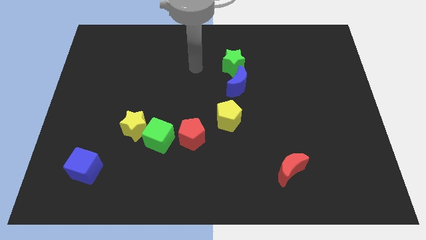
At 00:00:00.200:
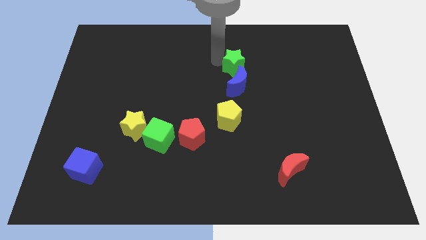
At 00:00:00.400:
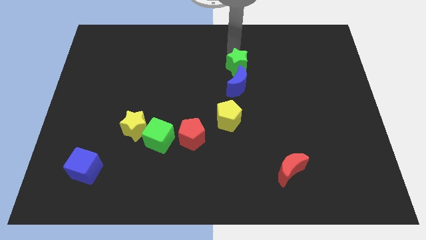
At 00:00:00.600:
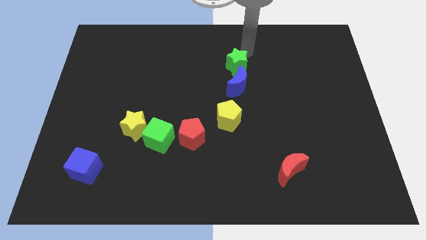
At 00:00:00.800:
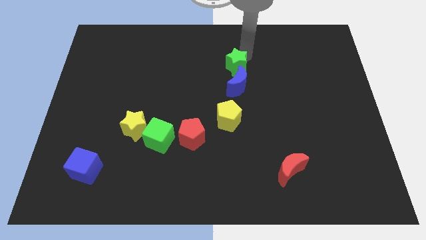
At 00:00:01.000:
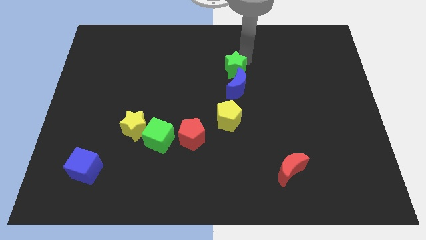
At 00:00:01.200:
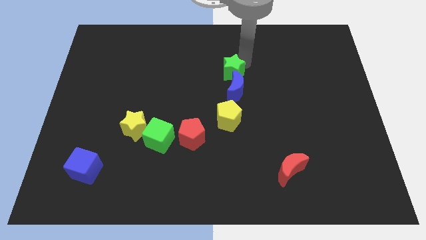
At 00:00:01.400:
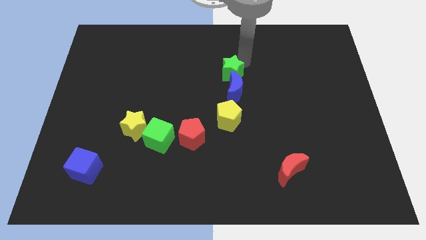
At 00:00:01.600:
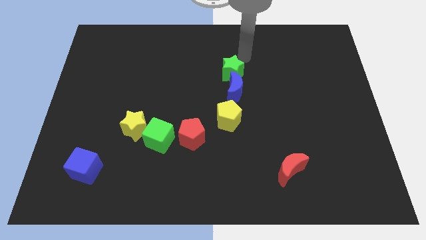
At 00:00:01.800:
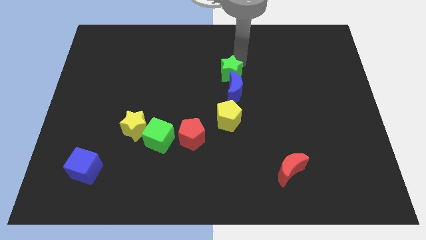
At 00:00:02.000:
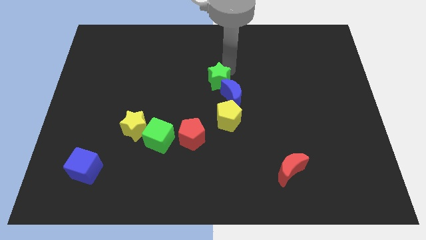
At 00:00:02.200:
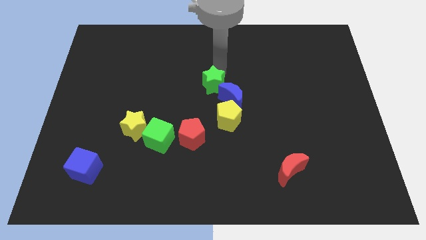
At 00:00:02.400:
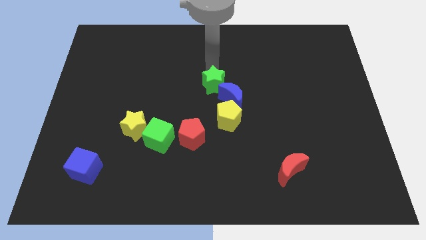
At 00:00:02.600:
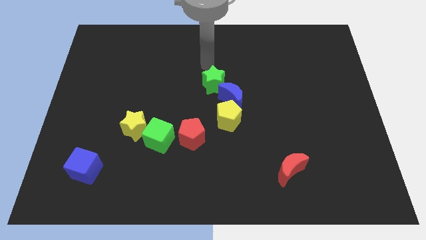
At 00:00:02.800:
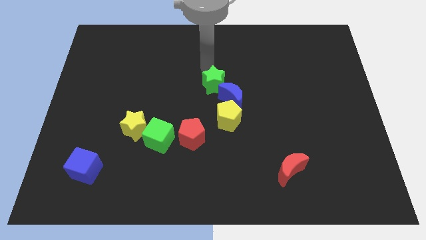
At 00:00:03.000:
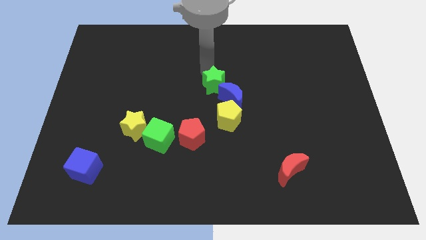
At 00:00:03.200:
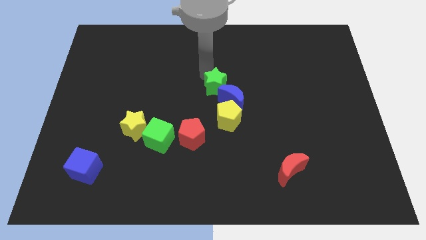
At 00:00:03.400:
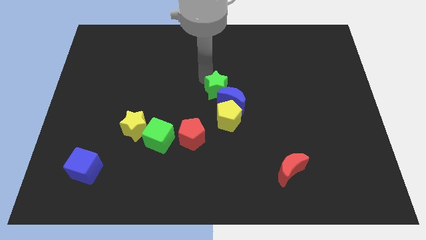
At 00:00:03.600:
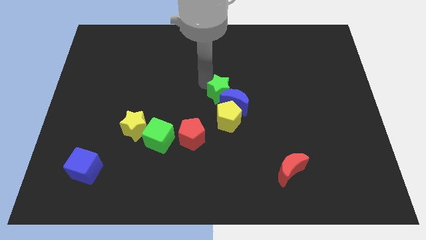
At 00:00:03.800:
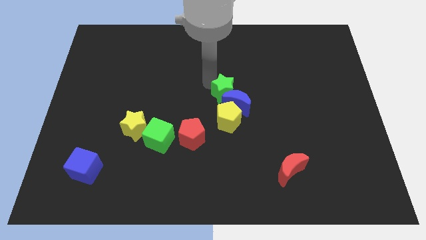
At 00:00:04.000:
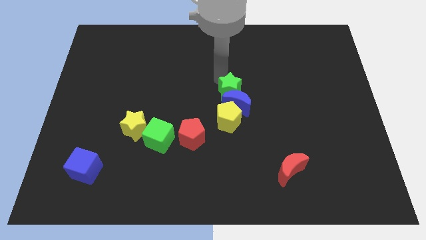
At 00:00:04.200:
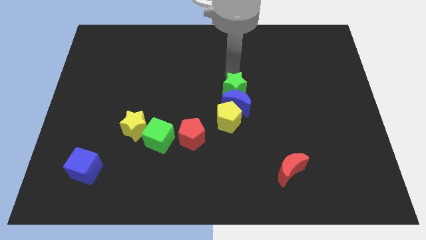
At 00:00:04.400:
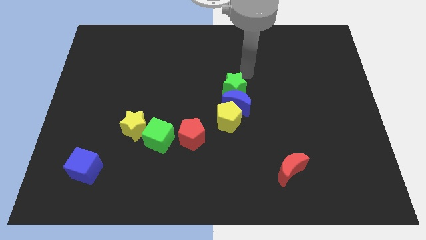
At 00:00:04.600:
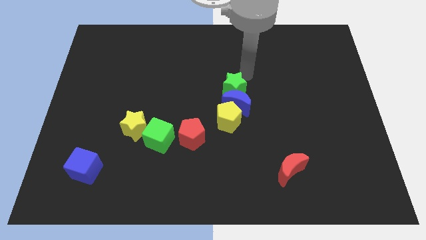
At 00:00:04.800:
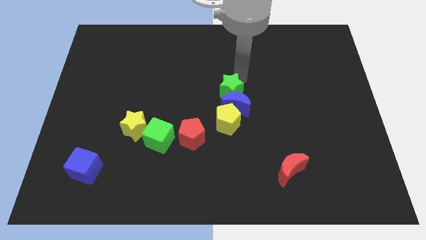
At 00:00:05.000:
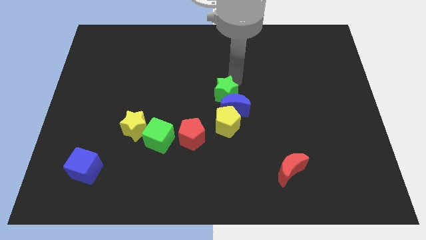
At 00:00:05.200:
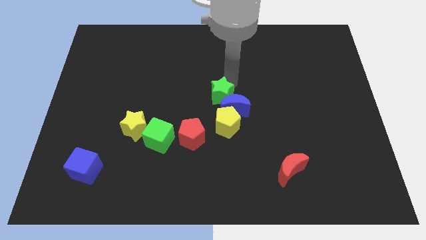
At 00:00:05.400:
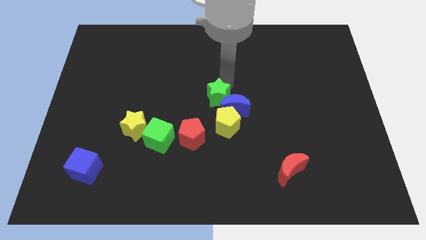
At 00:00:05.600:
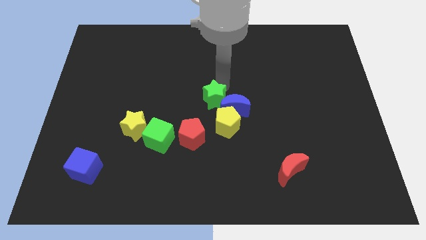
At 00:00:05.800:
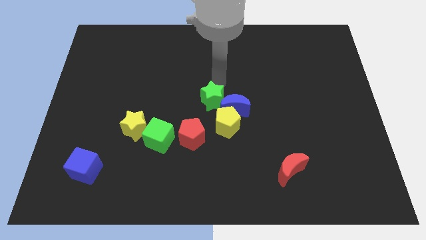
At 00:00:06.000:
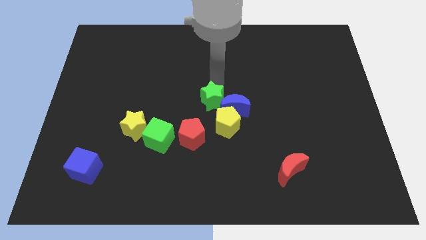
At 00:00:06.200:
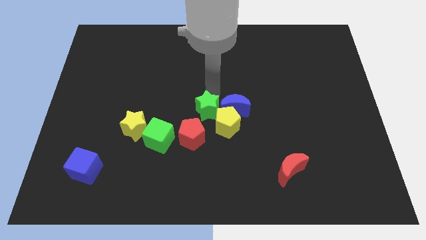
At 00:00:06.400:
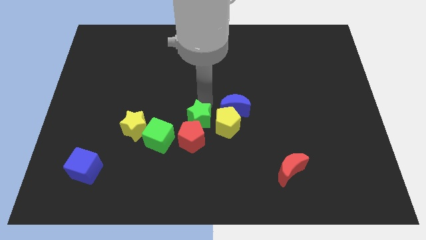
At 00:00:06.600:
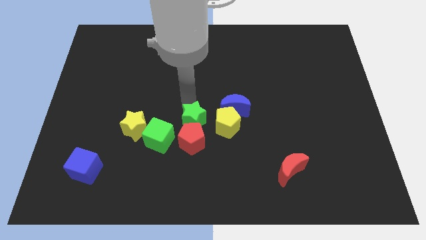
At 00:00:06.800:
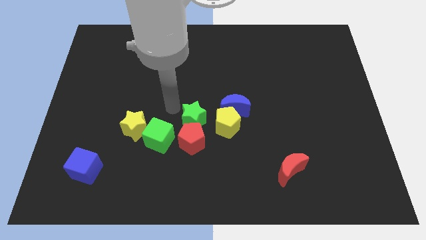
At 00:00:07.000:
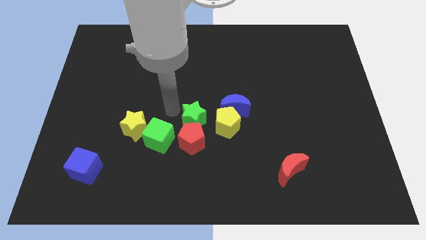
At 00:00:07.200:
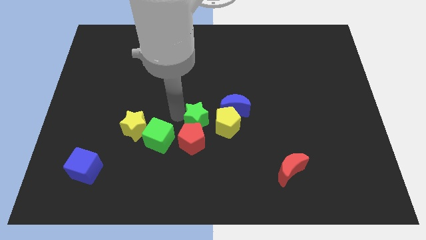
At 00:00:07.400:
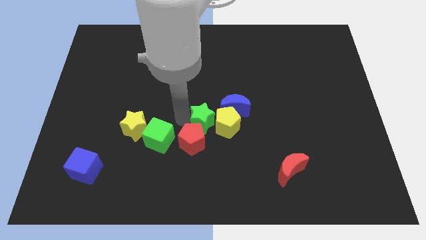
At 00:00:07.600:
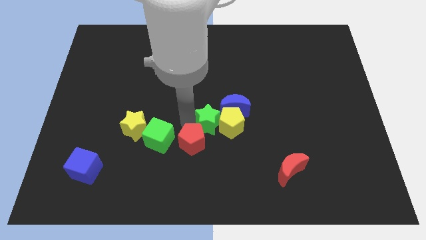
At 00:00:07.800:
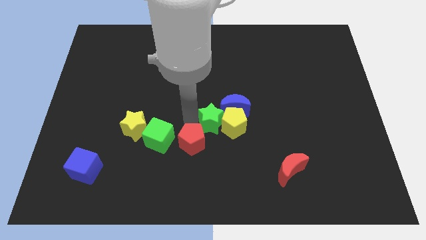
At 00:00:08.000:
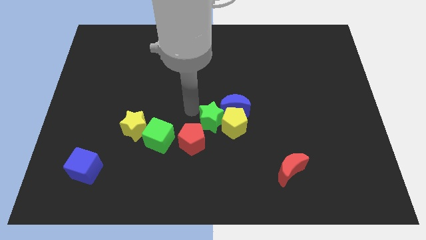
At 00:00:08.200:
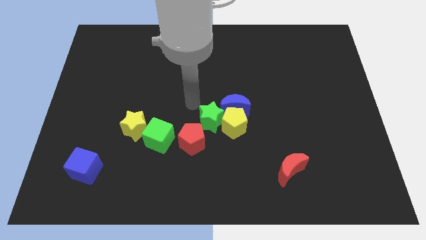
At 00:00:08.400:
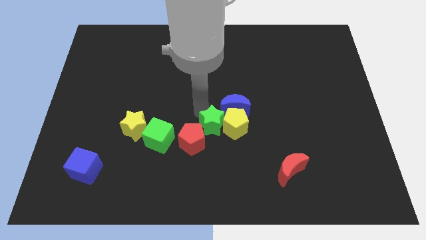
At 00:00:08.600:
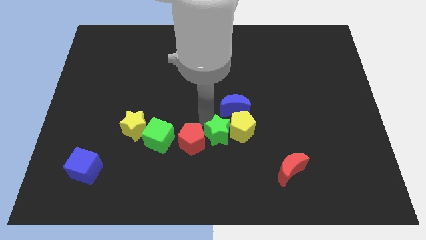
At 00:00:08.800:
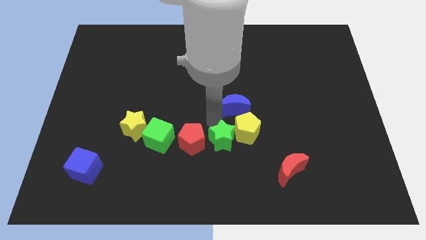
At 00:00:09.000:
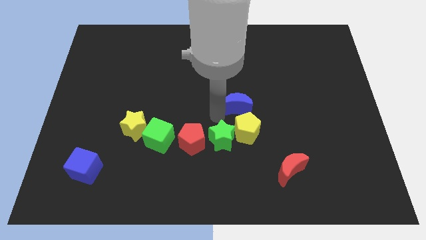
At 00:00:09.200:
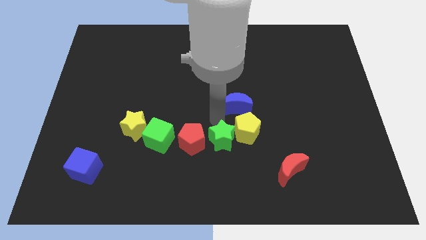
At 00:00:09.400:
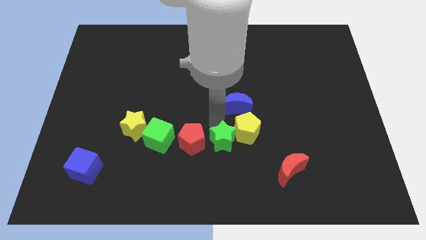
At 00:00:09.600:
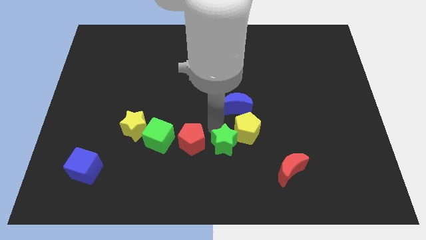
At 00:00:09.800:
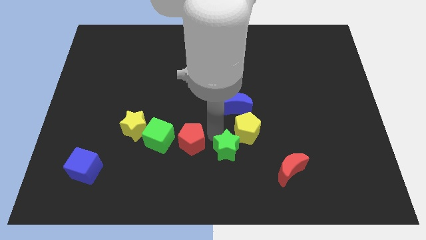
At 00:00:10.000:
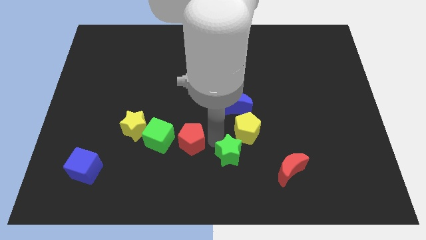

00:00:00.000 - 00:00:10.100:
push the green star to the bottom side
